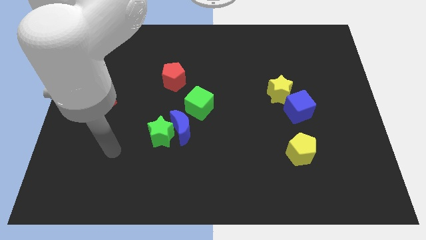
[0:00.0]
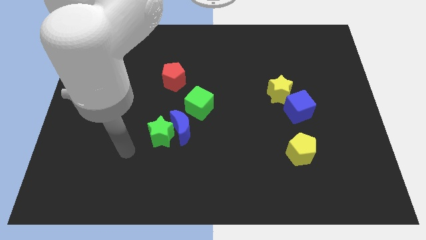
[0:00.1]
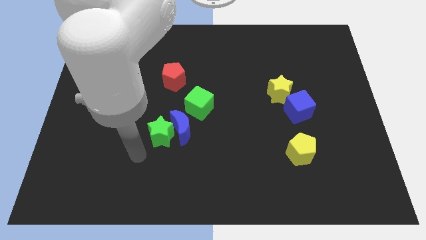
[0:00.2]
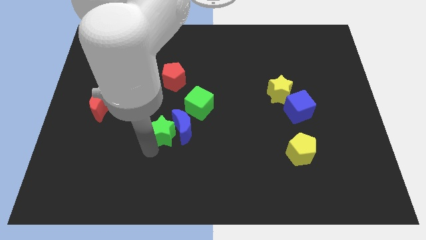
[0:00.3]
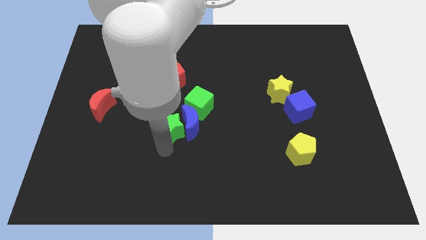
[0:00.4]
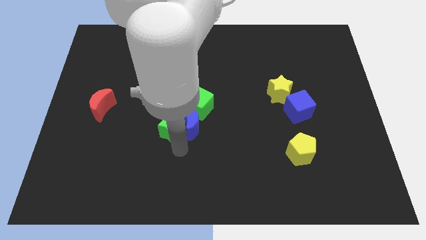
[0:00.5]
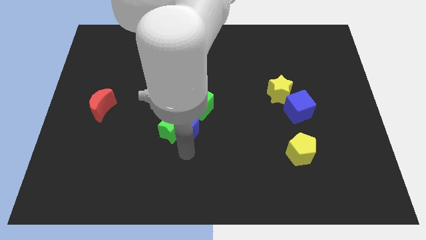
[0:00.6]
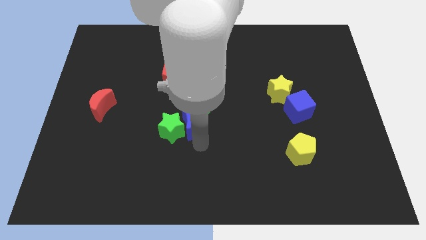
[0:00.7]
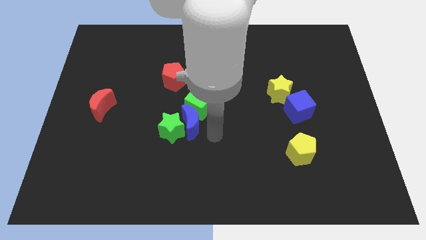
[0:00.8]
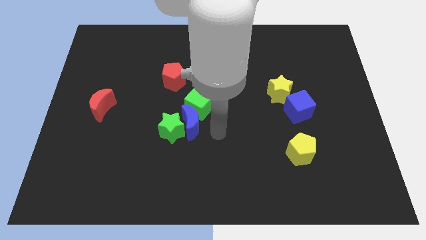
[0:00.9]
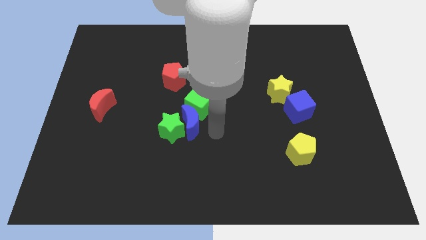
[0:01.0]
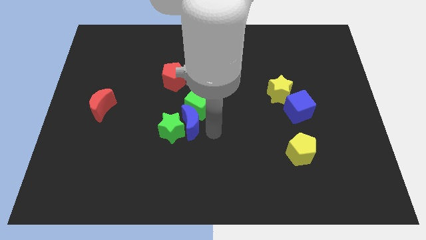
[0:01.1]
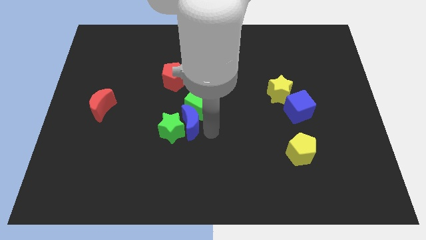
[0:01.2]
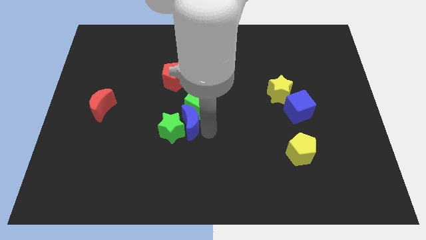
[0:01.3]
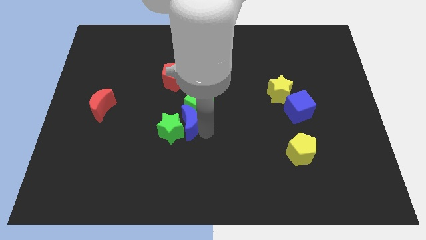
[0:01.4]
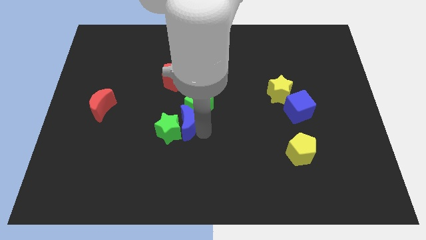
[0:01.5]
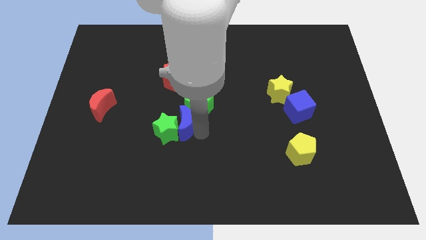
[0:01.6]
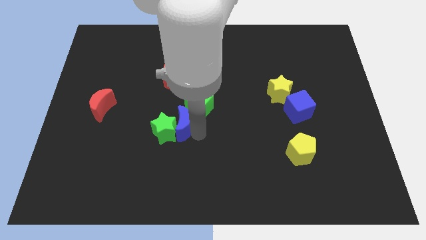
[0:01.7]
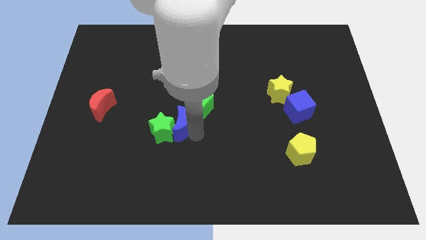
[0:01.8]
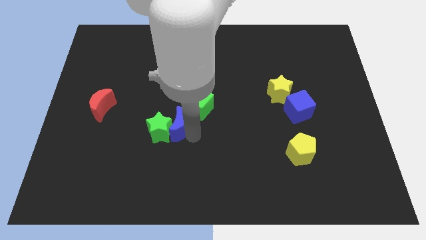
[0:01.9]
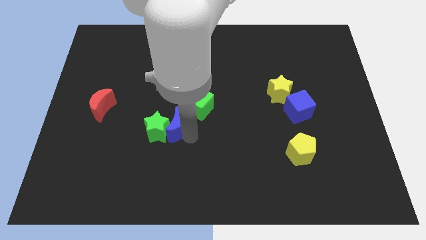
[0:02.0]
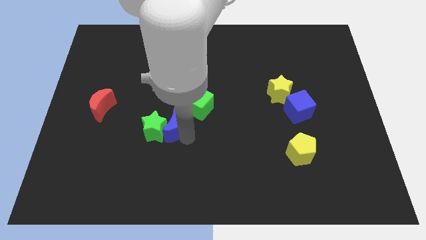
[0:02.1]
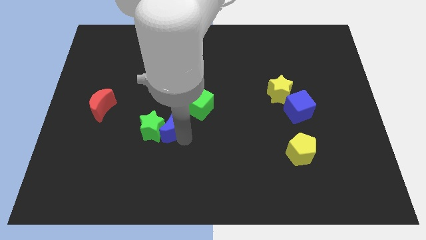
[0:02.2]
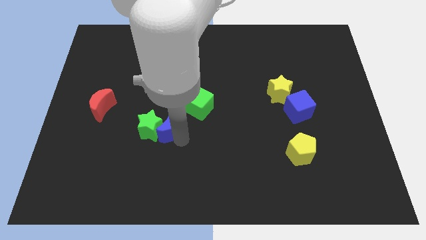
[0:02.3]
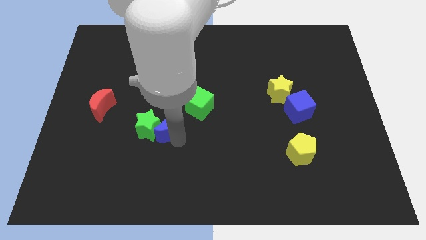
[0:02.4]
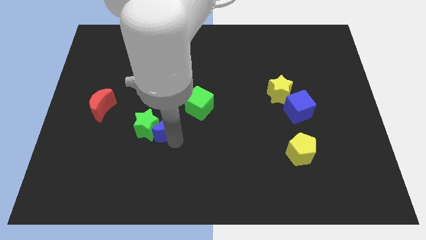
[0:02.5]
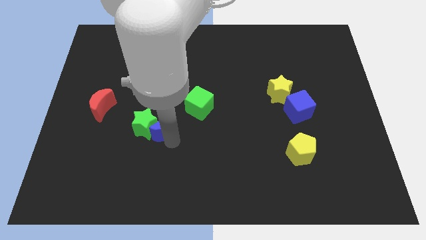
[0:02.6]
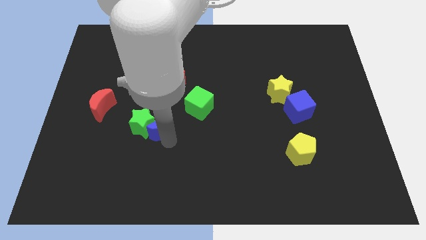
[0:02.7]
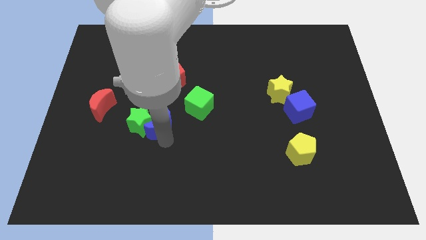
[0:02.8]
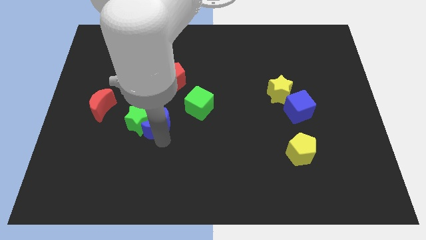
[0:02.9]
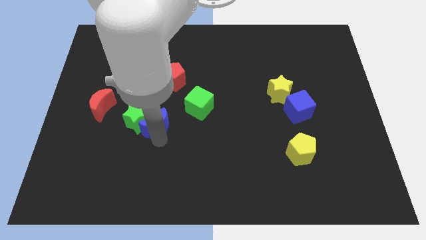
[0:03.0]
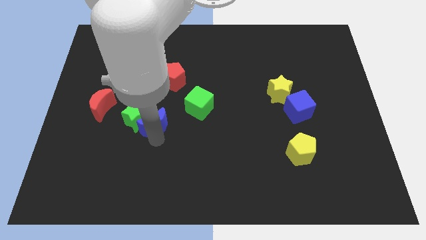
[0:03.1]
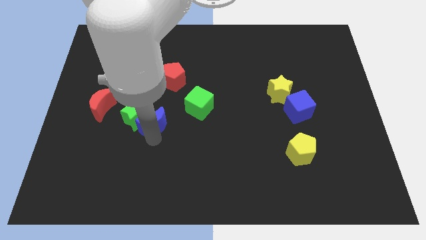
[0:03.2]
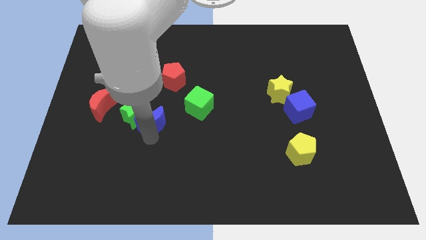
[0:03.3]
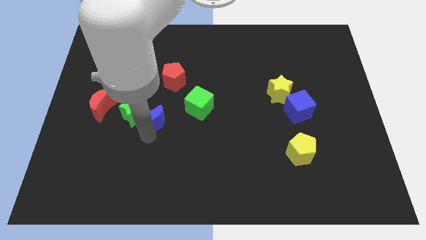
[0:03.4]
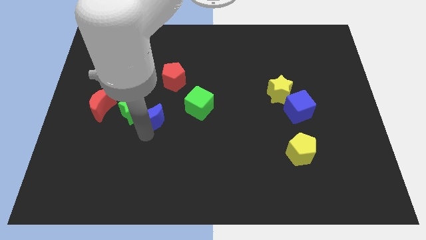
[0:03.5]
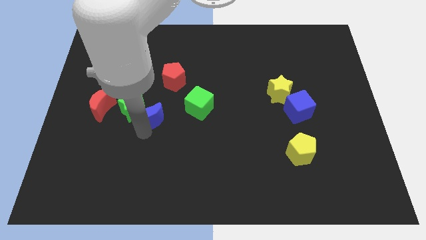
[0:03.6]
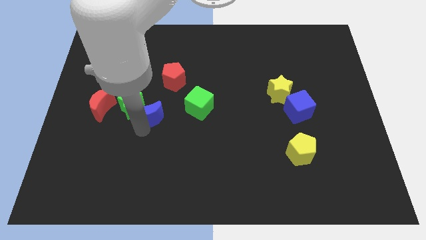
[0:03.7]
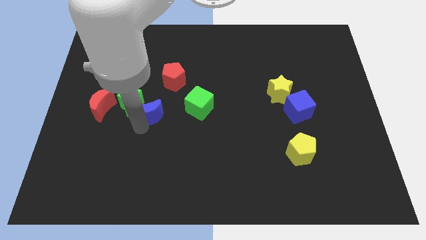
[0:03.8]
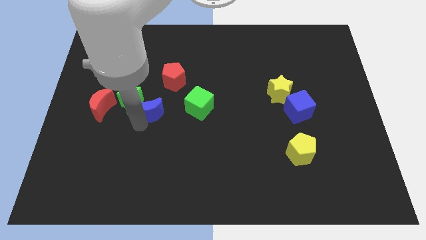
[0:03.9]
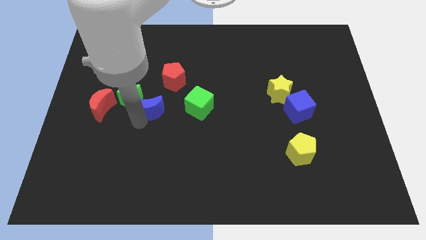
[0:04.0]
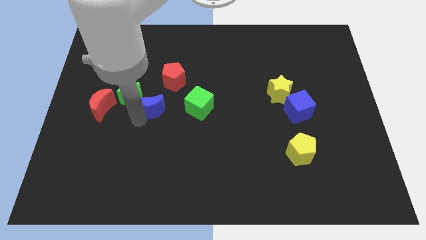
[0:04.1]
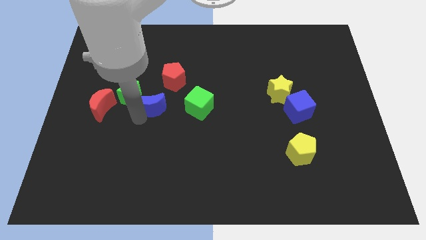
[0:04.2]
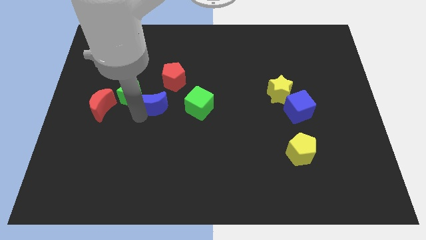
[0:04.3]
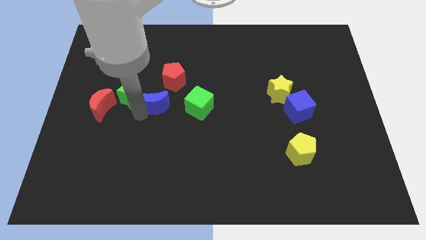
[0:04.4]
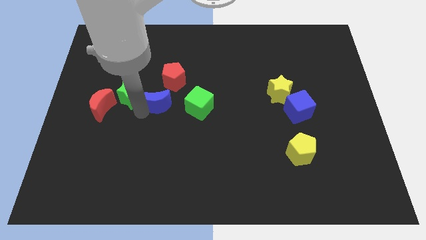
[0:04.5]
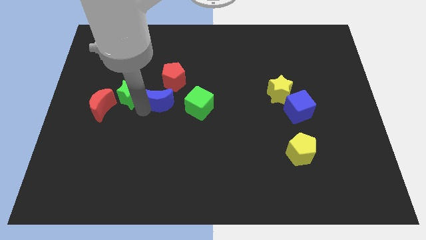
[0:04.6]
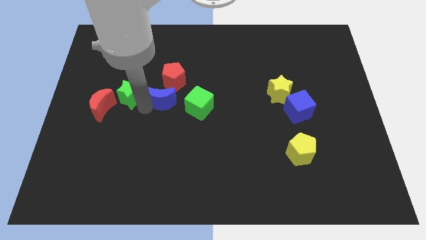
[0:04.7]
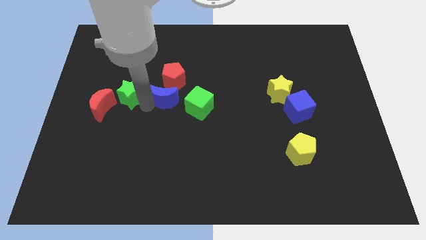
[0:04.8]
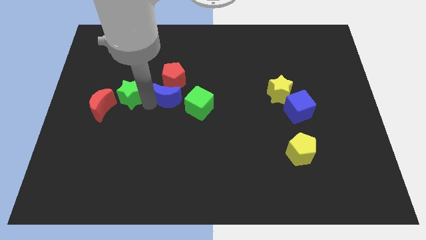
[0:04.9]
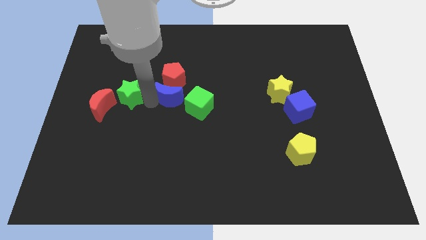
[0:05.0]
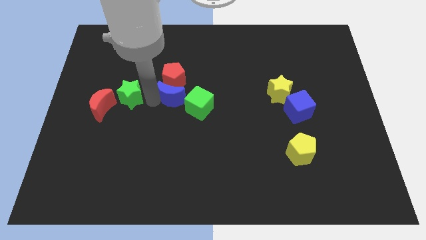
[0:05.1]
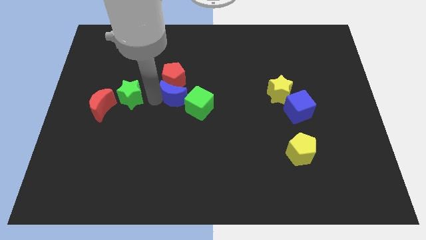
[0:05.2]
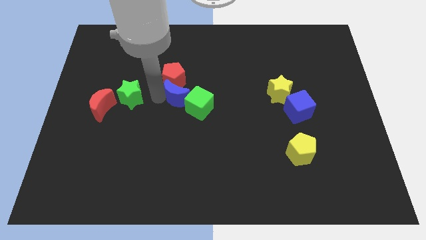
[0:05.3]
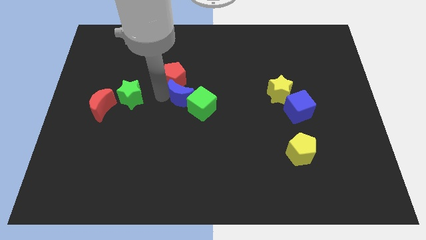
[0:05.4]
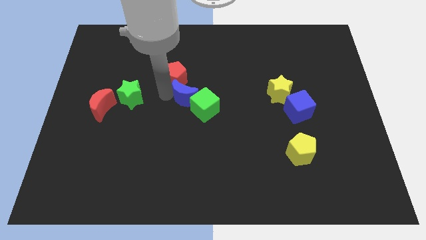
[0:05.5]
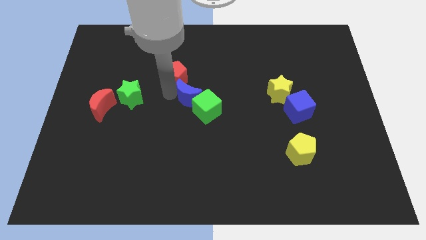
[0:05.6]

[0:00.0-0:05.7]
push the blue moon to the top side of the green cube

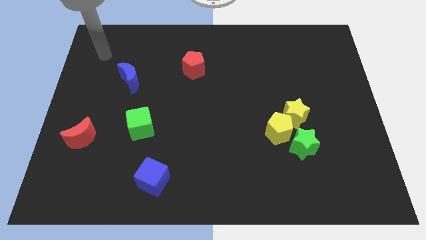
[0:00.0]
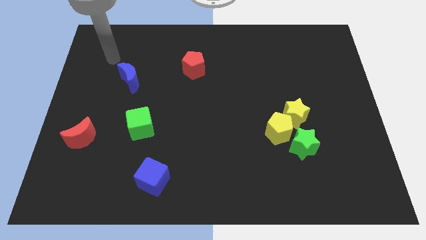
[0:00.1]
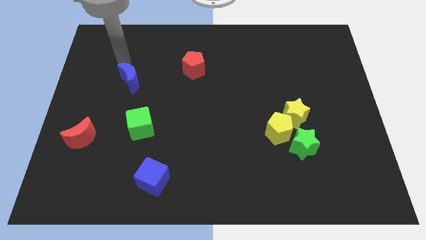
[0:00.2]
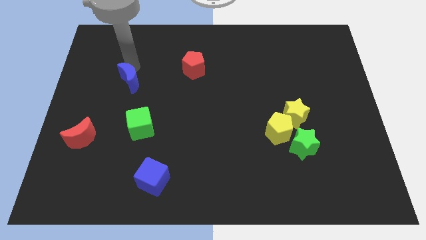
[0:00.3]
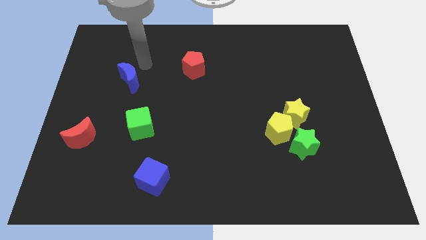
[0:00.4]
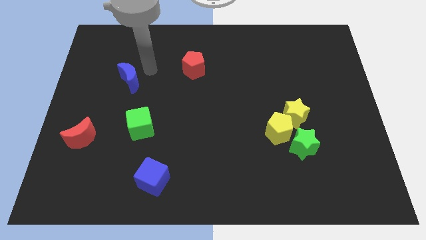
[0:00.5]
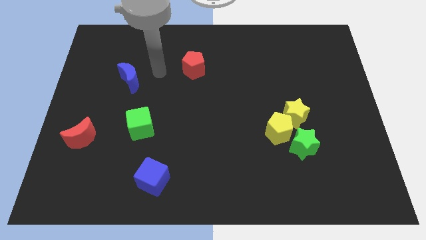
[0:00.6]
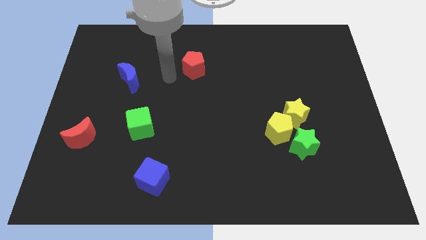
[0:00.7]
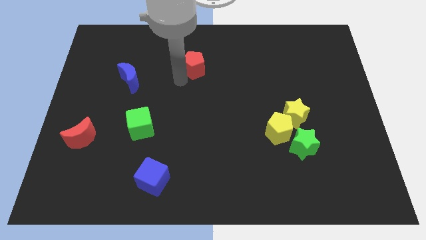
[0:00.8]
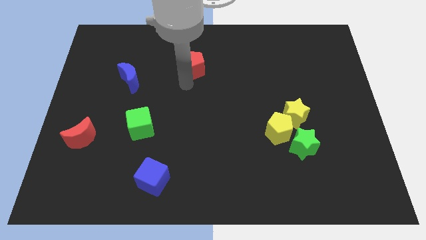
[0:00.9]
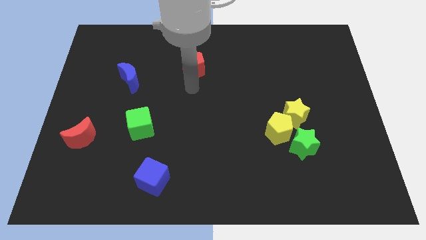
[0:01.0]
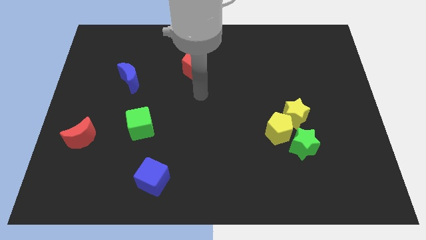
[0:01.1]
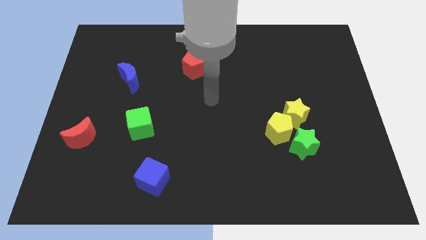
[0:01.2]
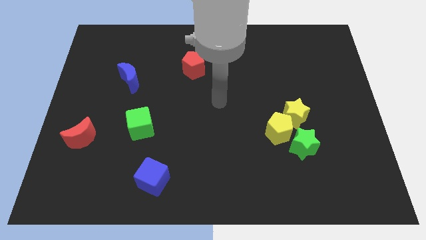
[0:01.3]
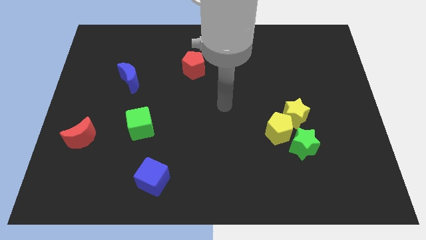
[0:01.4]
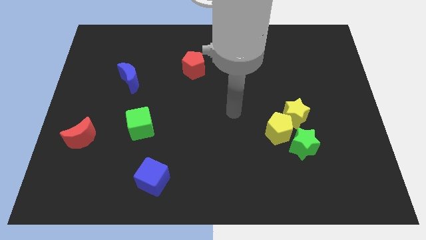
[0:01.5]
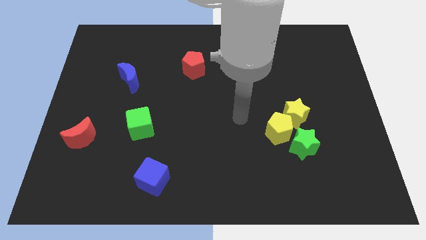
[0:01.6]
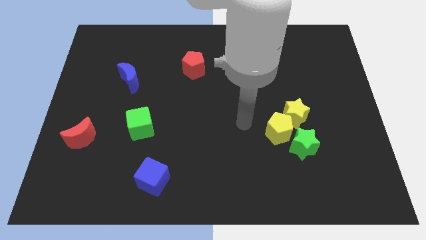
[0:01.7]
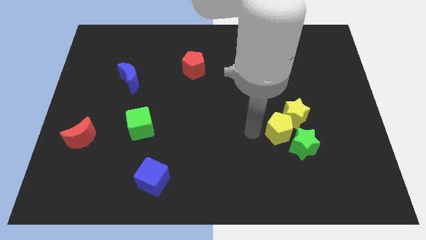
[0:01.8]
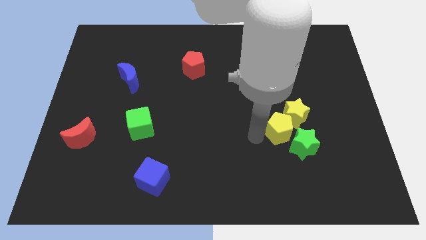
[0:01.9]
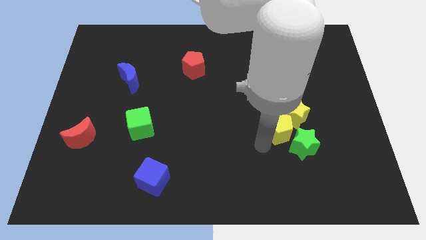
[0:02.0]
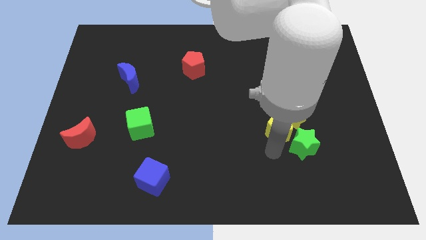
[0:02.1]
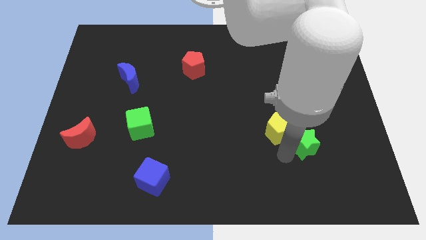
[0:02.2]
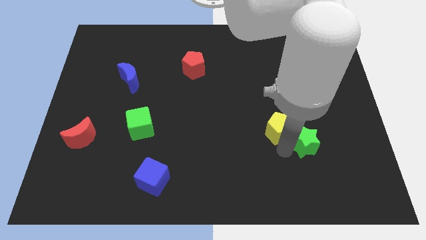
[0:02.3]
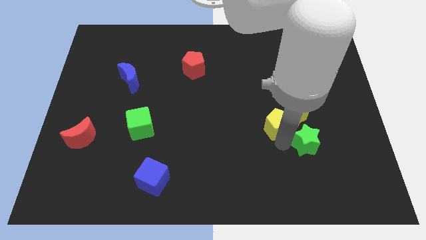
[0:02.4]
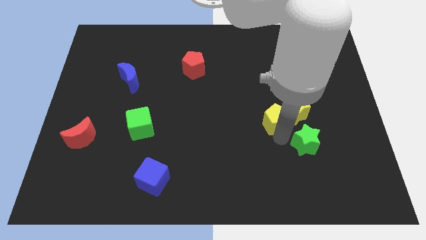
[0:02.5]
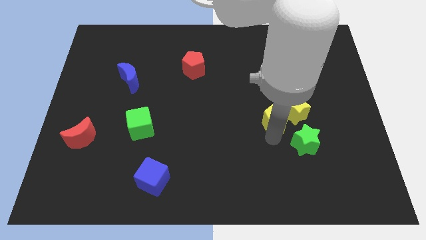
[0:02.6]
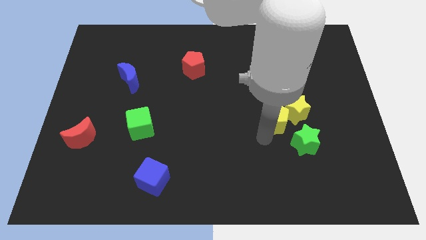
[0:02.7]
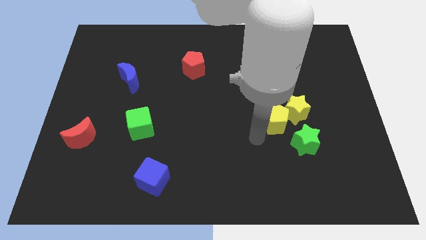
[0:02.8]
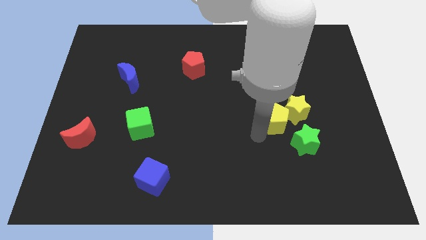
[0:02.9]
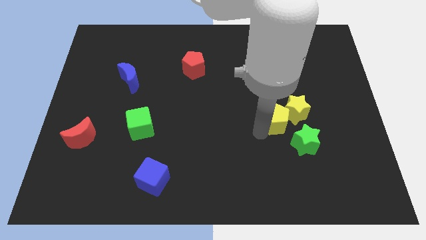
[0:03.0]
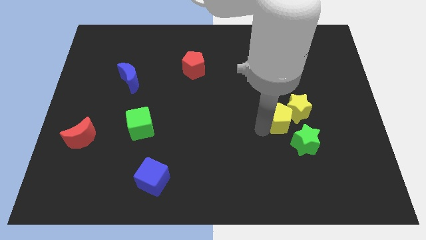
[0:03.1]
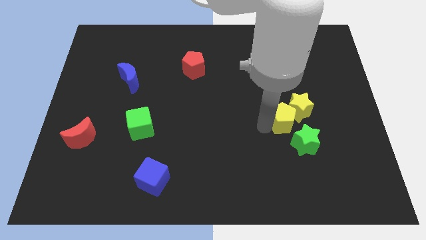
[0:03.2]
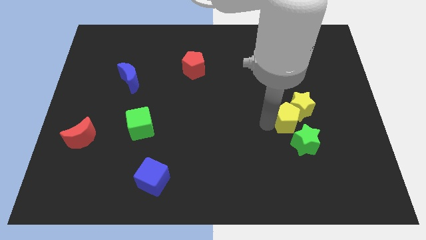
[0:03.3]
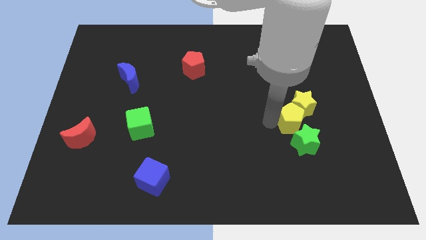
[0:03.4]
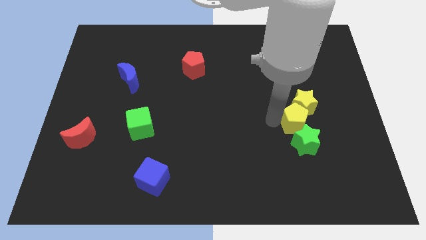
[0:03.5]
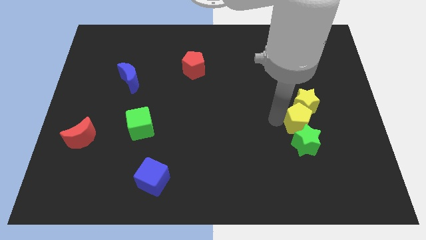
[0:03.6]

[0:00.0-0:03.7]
move the yellow pentagon to the top right side of the green star
